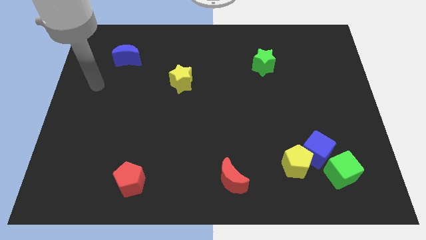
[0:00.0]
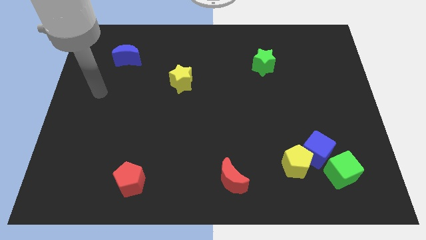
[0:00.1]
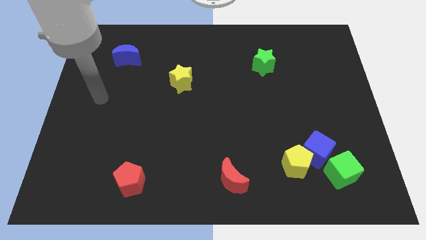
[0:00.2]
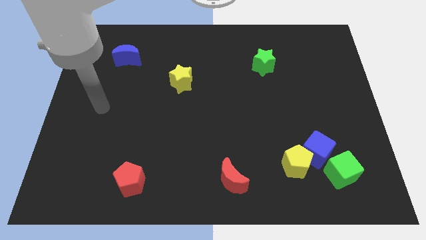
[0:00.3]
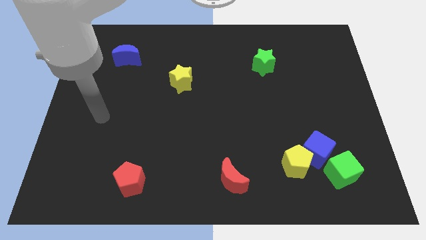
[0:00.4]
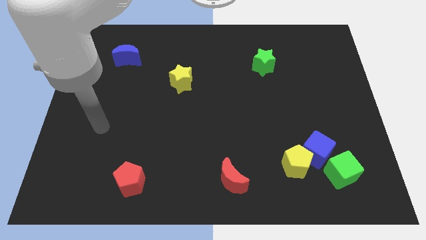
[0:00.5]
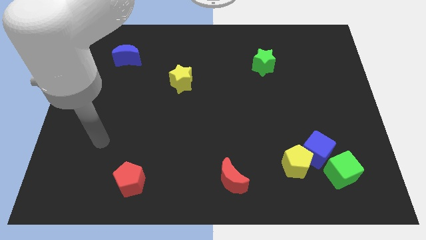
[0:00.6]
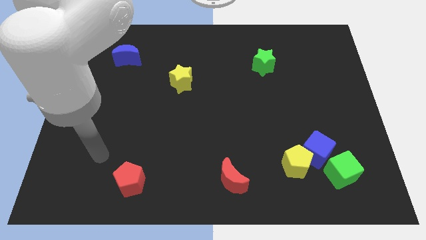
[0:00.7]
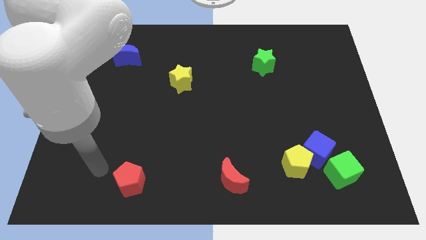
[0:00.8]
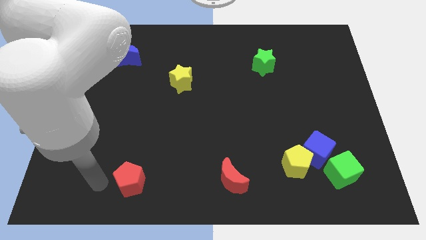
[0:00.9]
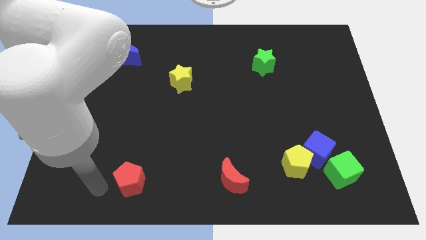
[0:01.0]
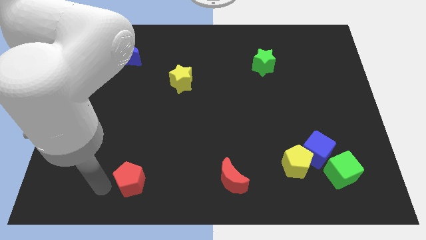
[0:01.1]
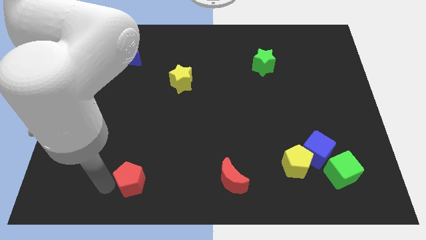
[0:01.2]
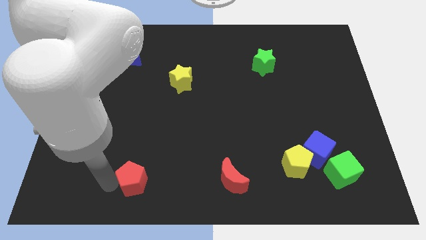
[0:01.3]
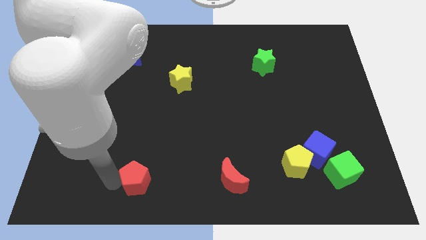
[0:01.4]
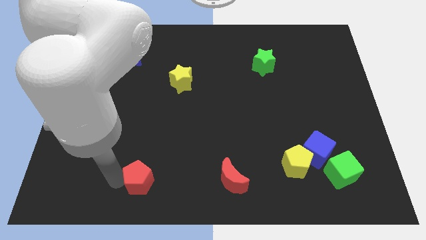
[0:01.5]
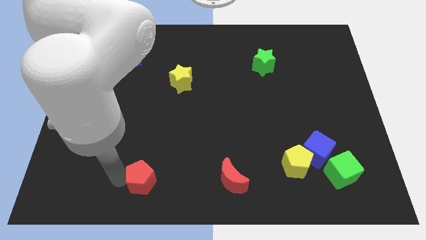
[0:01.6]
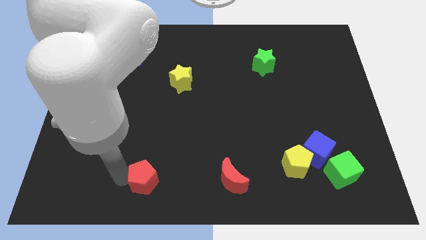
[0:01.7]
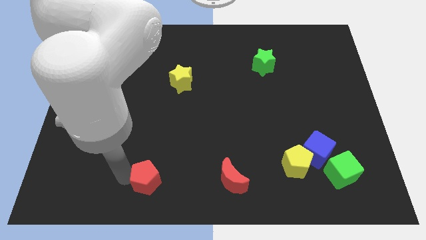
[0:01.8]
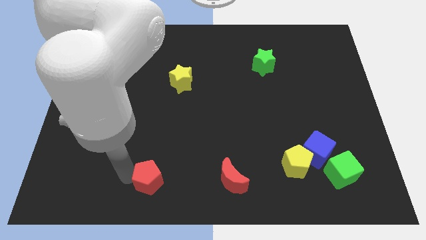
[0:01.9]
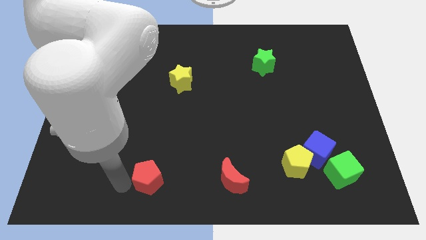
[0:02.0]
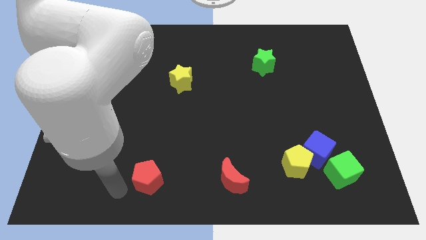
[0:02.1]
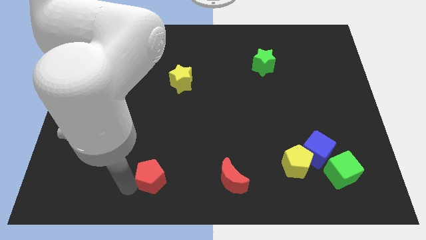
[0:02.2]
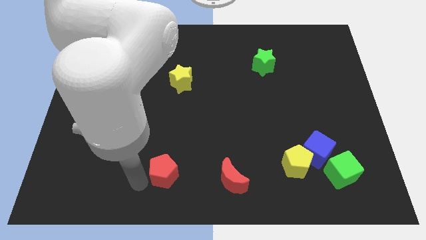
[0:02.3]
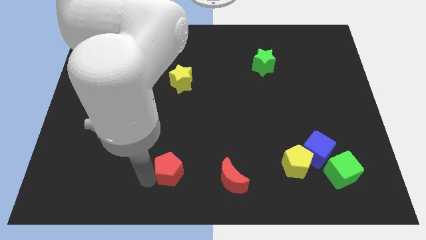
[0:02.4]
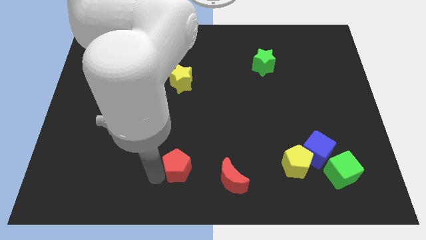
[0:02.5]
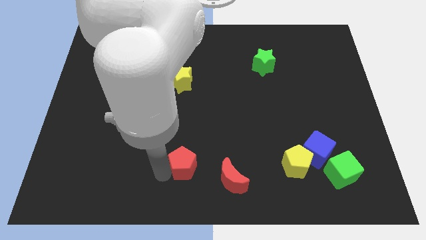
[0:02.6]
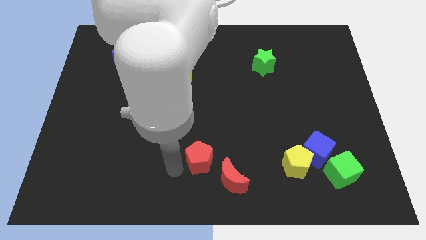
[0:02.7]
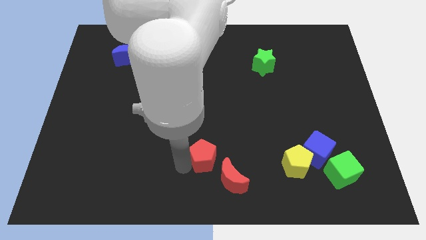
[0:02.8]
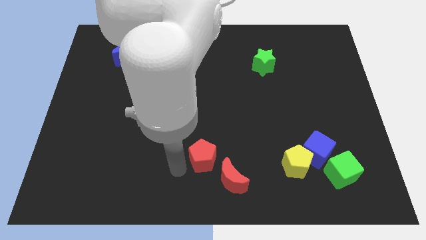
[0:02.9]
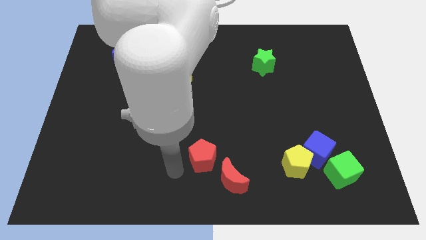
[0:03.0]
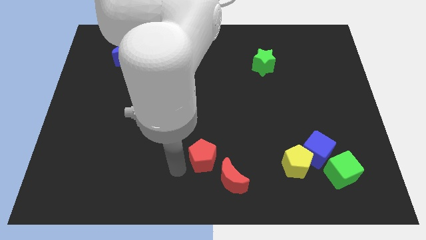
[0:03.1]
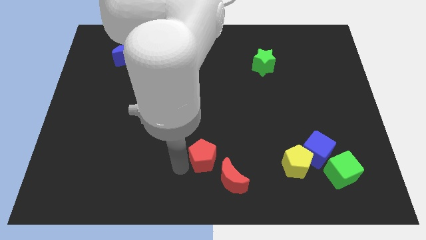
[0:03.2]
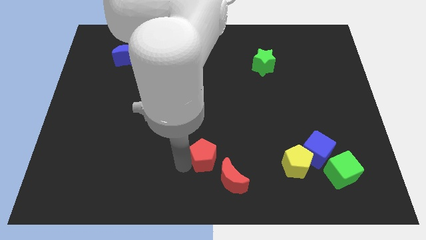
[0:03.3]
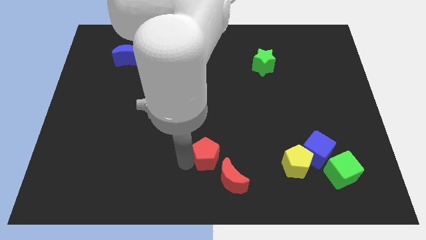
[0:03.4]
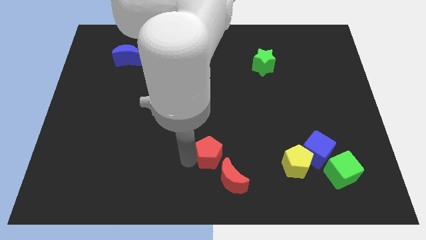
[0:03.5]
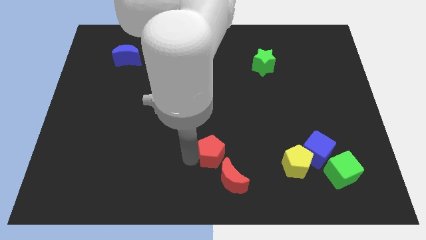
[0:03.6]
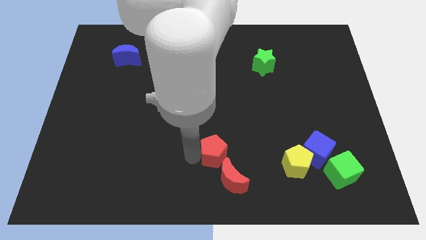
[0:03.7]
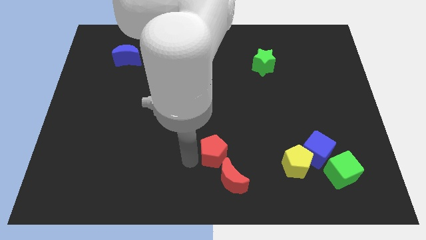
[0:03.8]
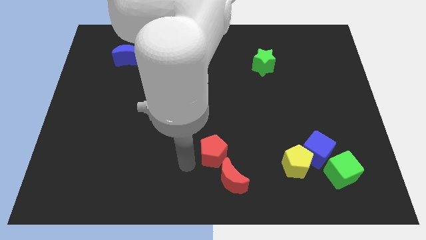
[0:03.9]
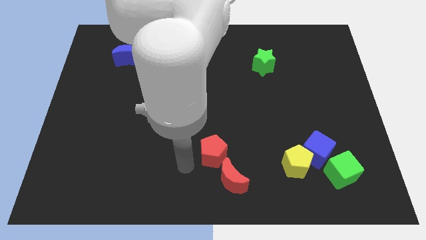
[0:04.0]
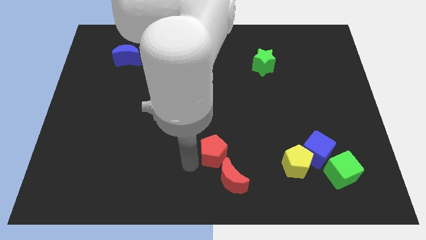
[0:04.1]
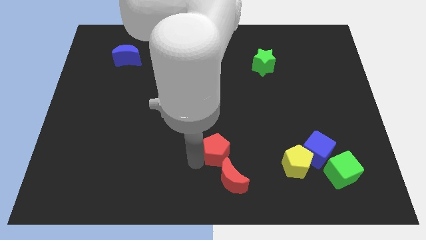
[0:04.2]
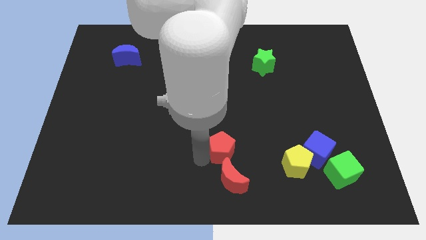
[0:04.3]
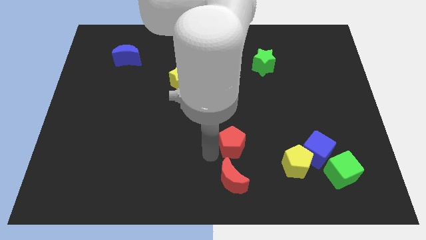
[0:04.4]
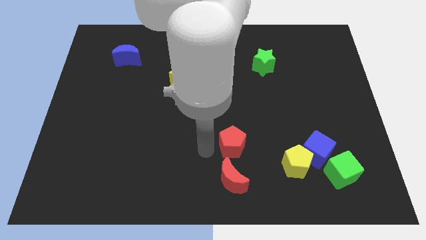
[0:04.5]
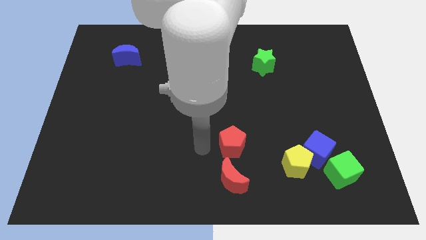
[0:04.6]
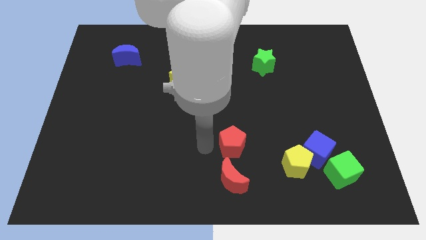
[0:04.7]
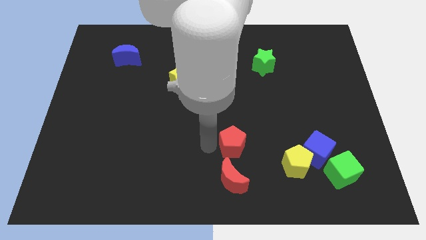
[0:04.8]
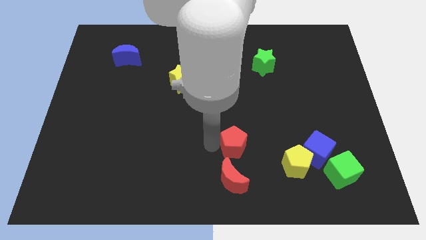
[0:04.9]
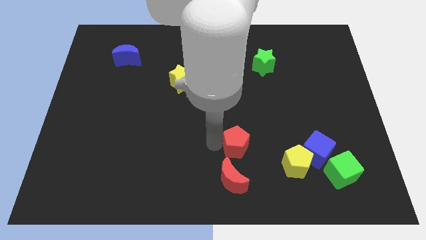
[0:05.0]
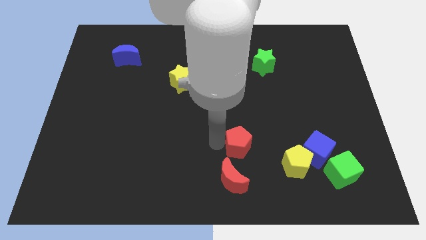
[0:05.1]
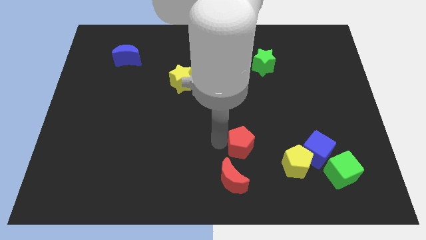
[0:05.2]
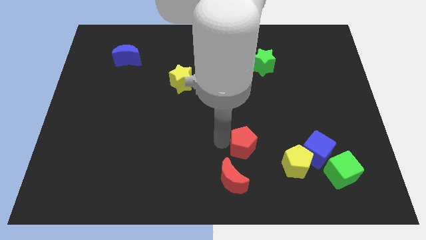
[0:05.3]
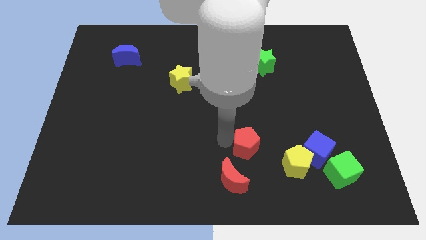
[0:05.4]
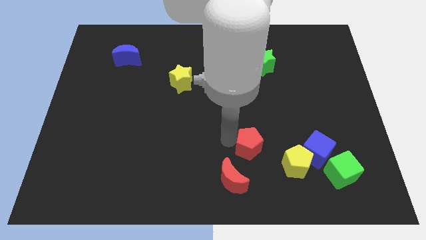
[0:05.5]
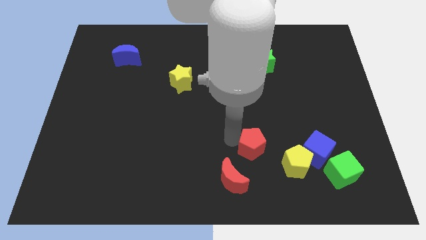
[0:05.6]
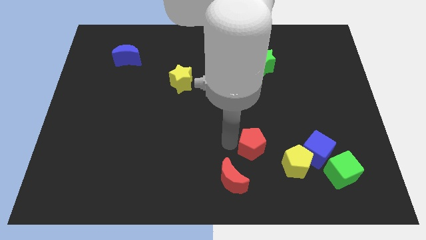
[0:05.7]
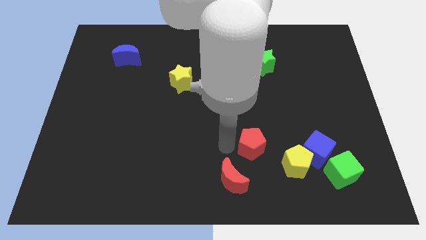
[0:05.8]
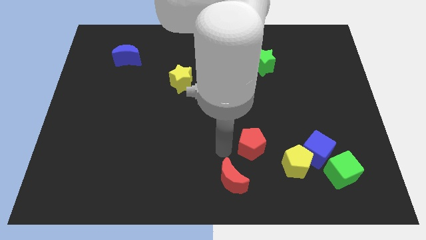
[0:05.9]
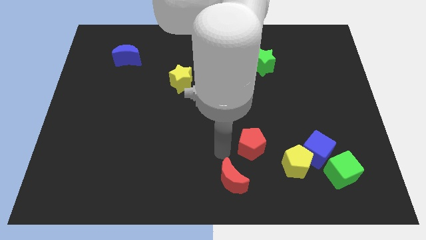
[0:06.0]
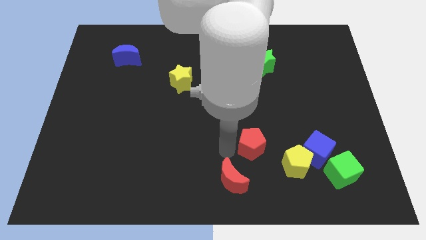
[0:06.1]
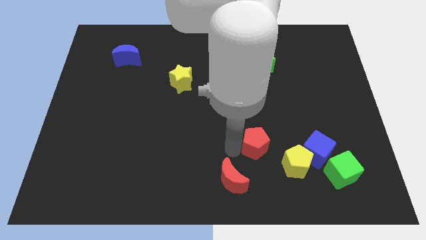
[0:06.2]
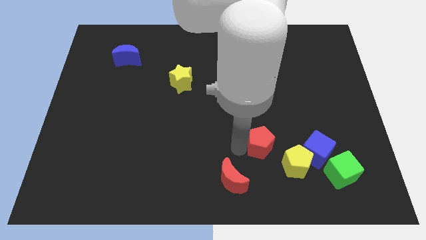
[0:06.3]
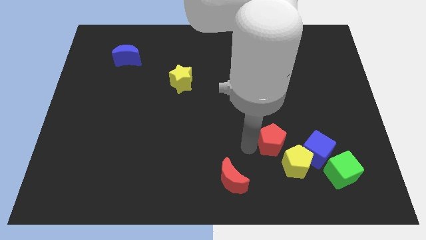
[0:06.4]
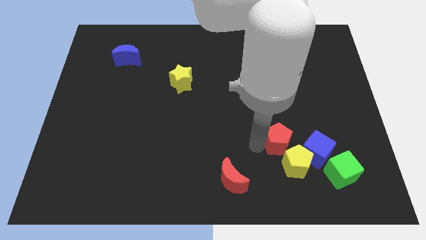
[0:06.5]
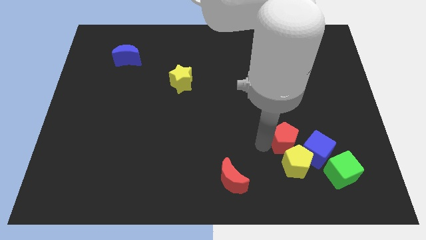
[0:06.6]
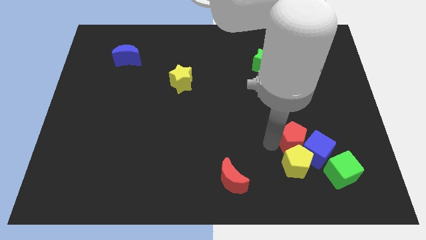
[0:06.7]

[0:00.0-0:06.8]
push the red pentagon to the top right of the yellow pentagon

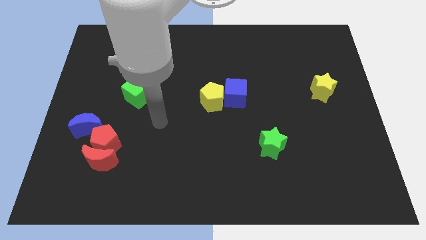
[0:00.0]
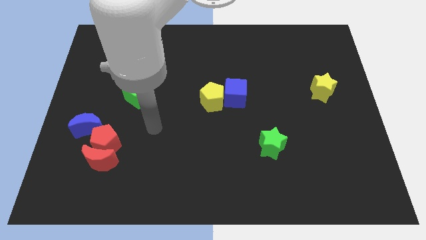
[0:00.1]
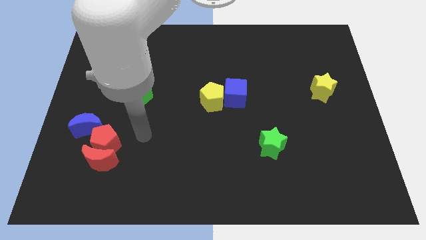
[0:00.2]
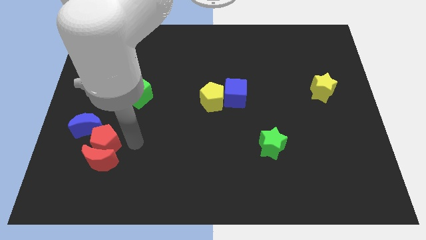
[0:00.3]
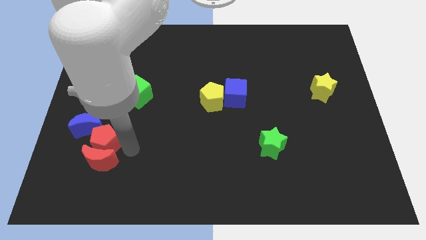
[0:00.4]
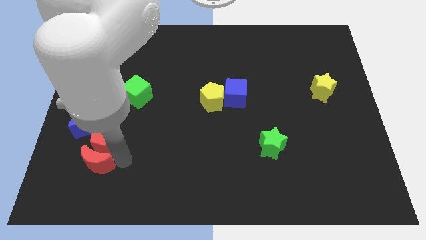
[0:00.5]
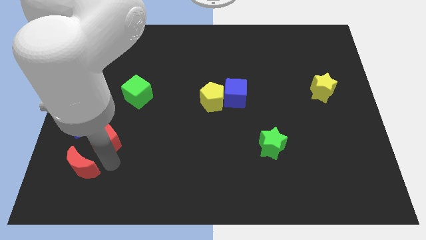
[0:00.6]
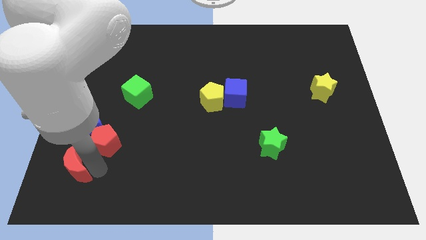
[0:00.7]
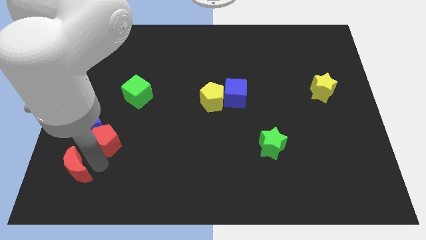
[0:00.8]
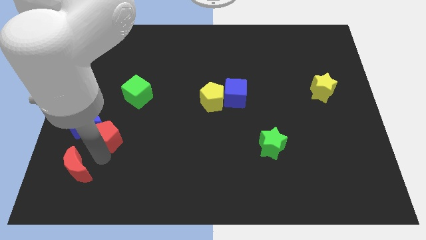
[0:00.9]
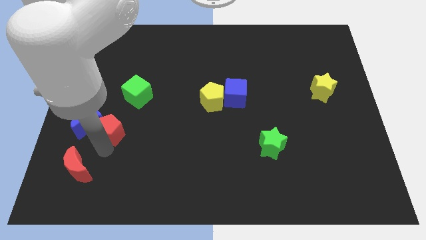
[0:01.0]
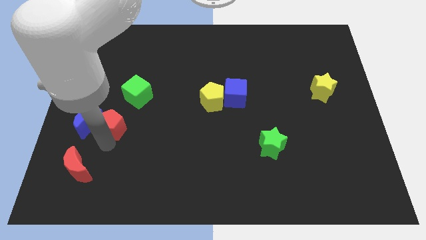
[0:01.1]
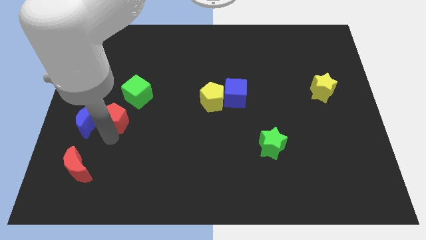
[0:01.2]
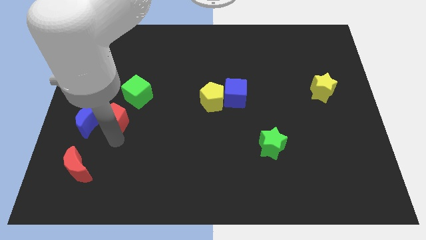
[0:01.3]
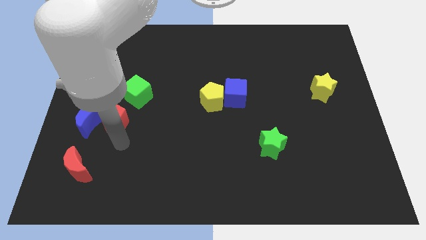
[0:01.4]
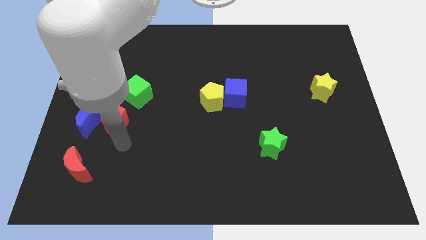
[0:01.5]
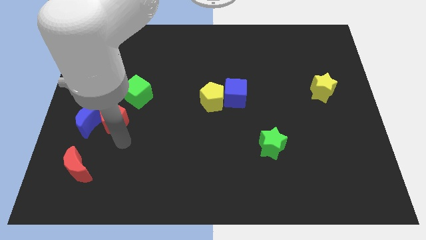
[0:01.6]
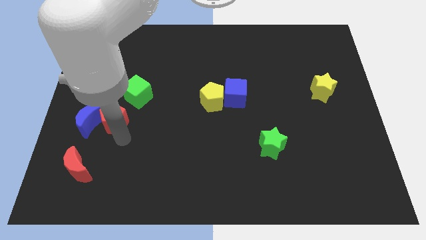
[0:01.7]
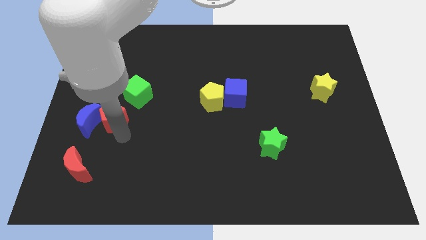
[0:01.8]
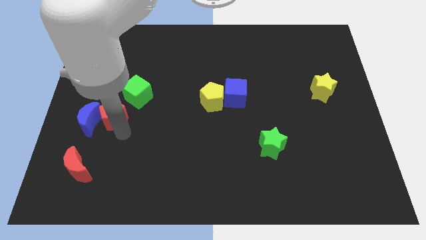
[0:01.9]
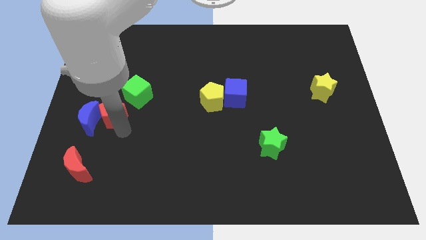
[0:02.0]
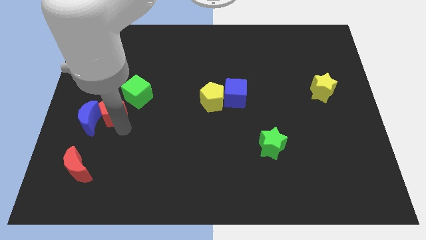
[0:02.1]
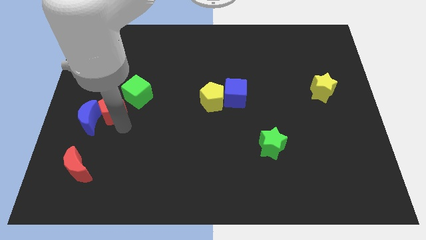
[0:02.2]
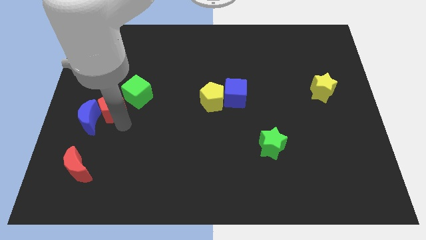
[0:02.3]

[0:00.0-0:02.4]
move the red pentagon to the left side of the green cube
